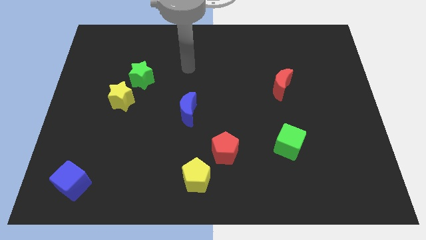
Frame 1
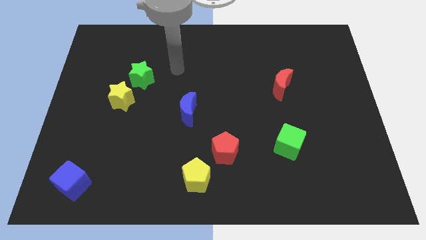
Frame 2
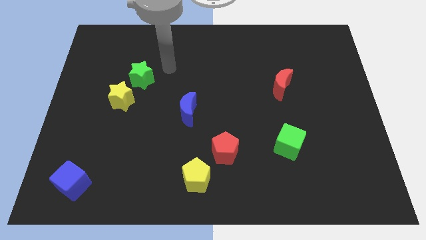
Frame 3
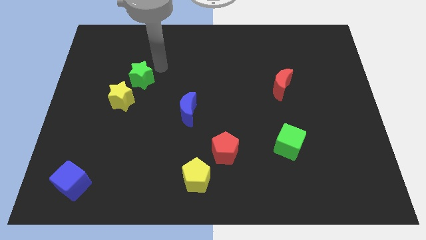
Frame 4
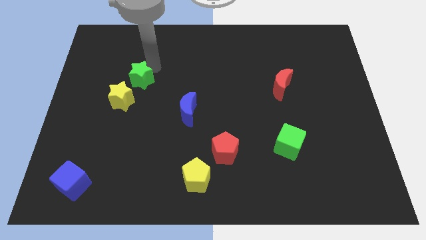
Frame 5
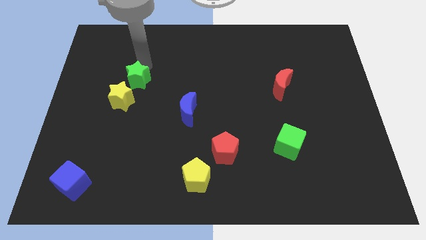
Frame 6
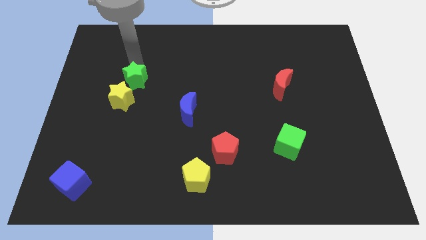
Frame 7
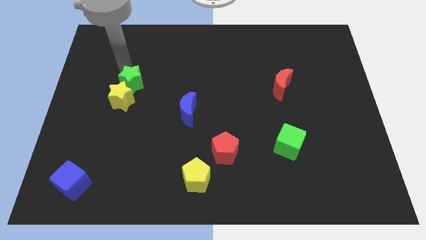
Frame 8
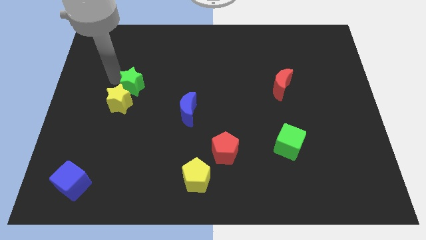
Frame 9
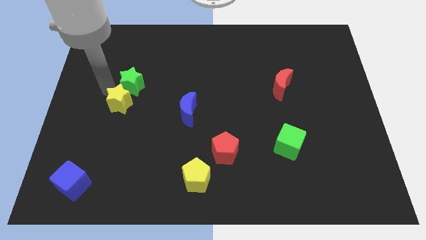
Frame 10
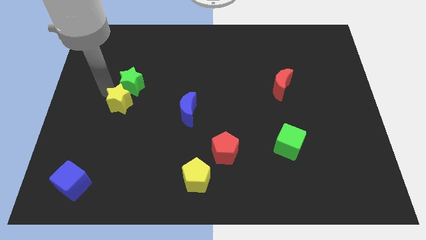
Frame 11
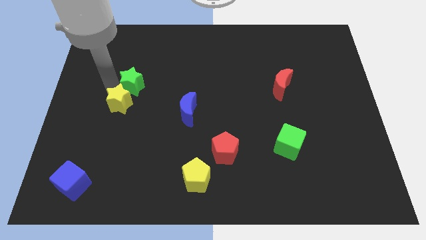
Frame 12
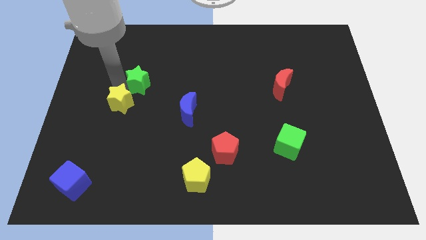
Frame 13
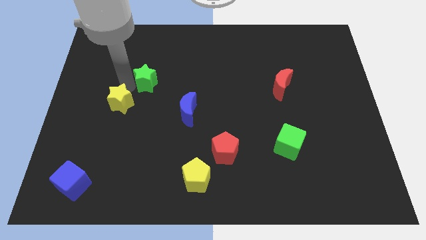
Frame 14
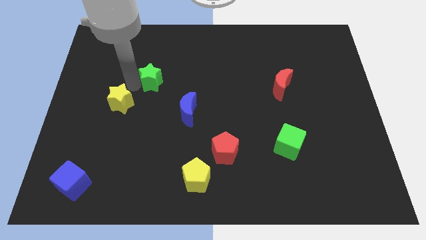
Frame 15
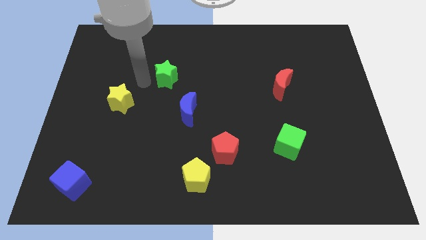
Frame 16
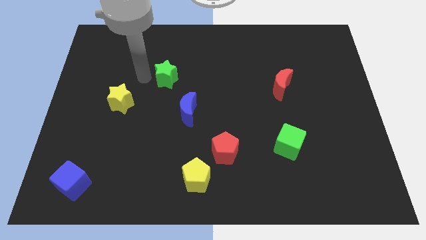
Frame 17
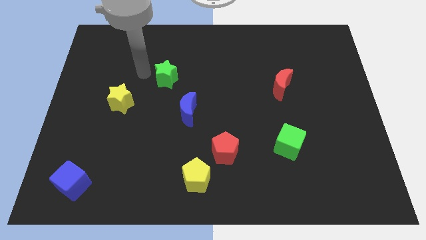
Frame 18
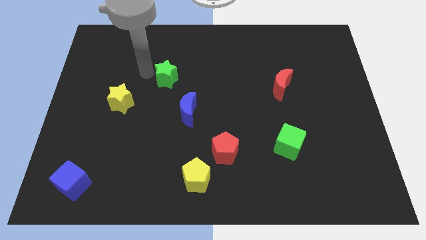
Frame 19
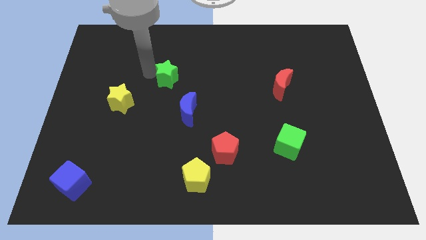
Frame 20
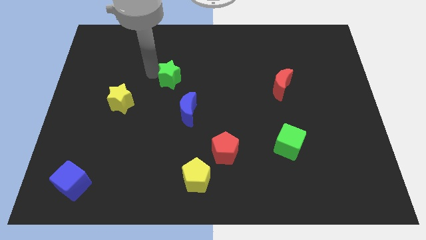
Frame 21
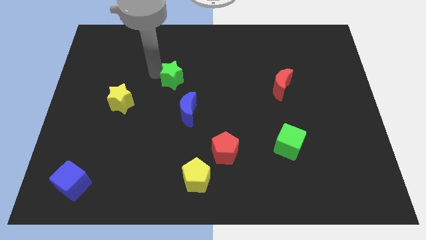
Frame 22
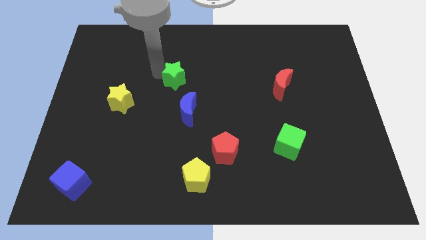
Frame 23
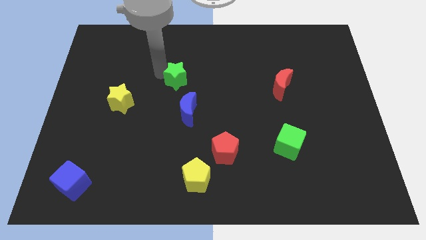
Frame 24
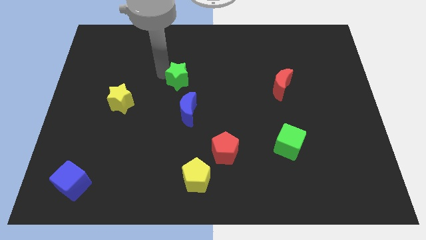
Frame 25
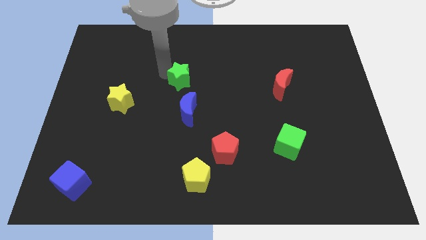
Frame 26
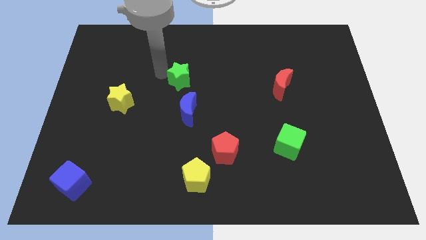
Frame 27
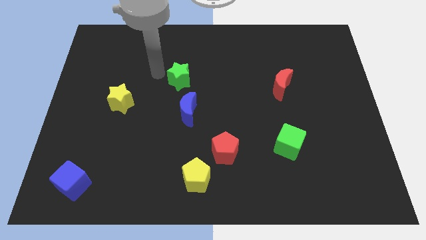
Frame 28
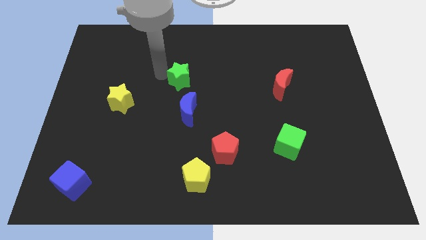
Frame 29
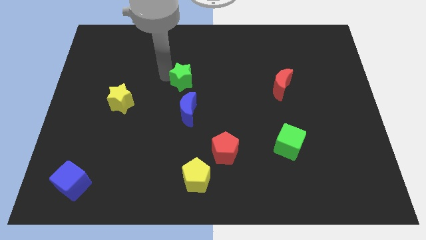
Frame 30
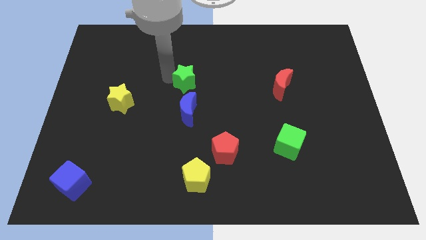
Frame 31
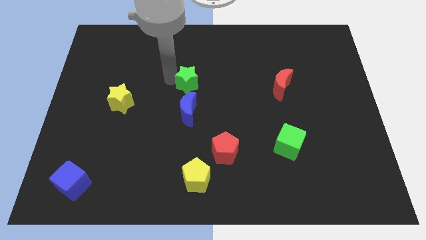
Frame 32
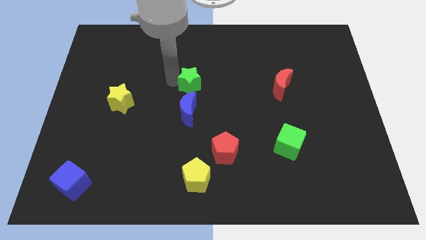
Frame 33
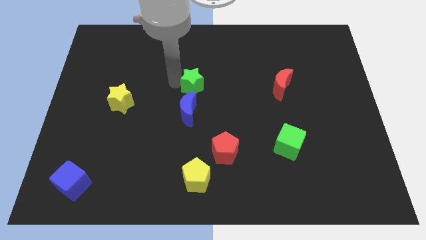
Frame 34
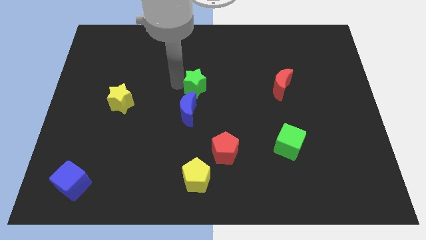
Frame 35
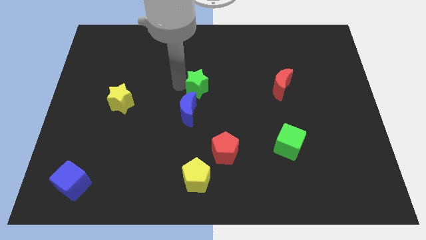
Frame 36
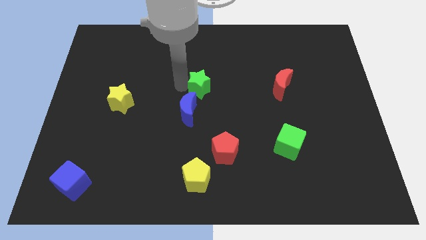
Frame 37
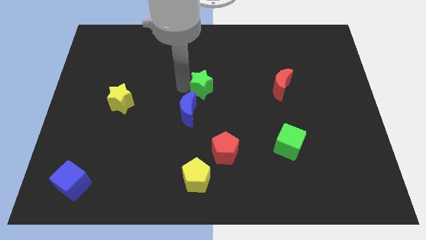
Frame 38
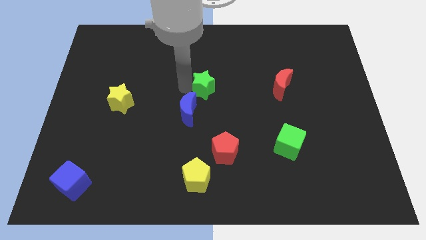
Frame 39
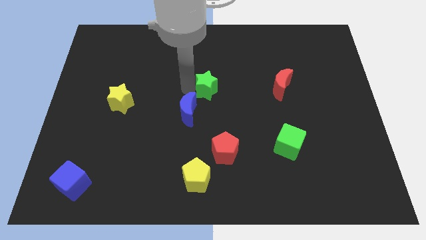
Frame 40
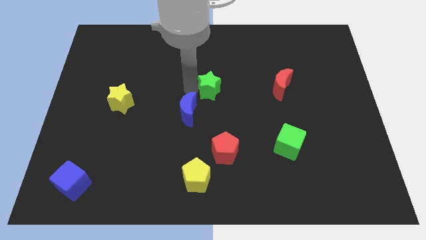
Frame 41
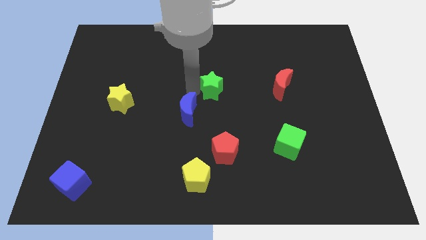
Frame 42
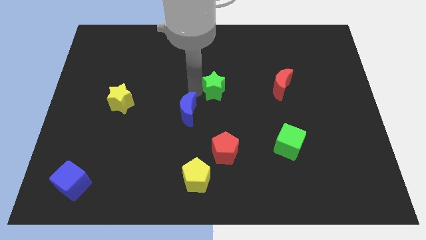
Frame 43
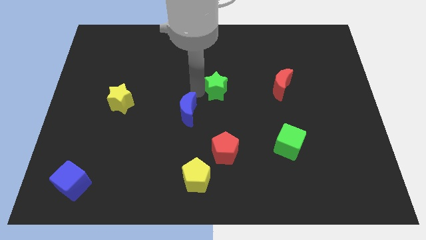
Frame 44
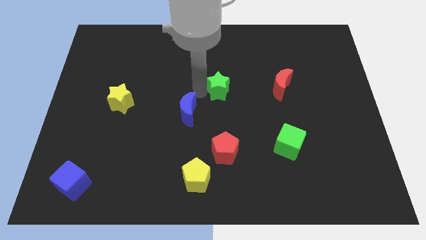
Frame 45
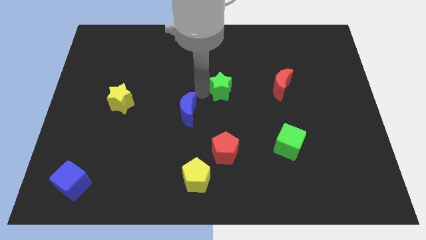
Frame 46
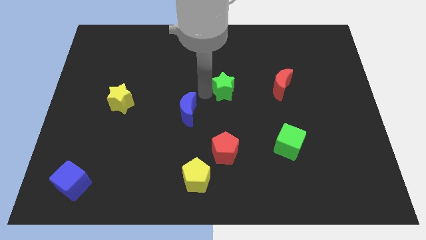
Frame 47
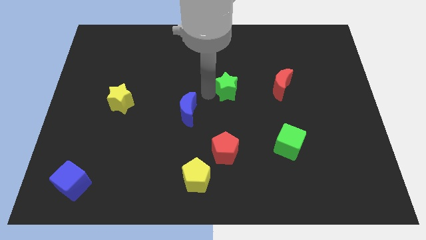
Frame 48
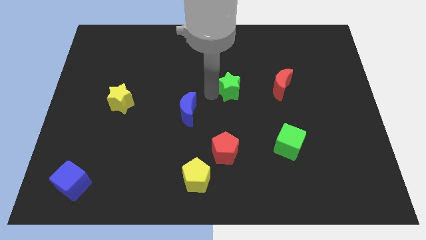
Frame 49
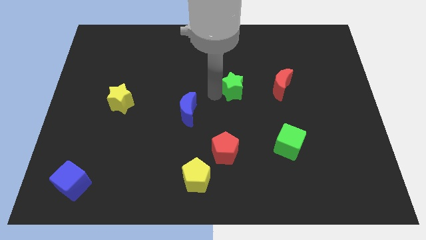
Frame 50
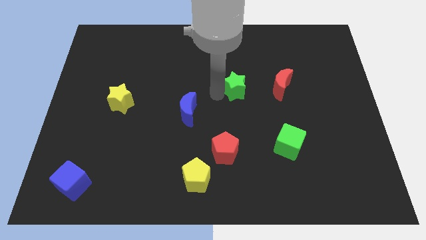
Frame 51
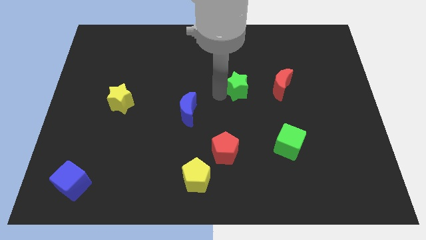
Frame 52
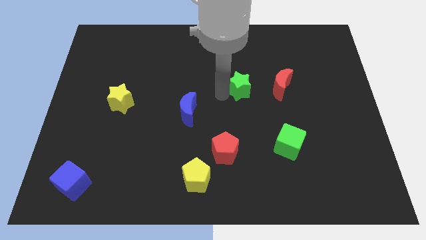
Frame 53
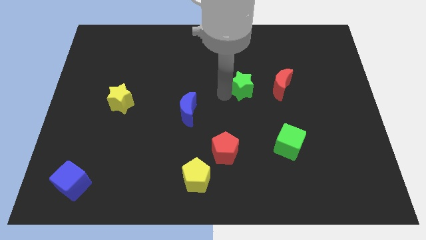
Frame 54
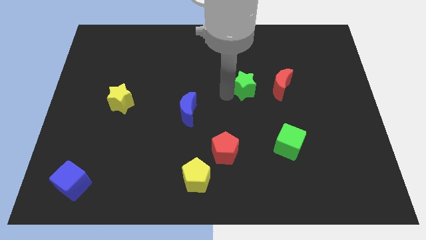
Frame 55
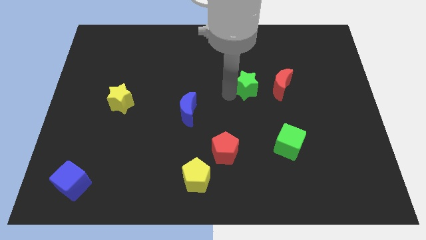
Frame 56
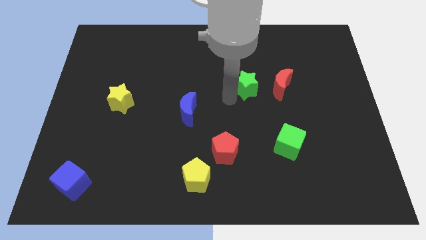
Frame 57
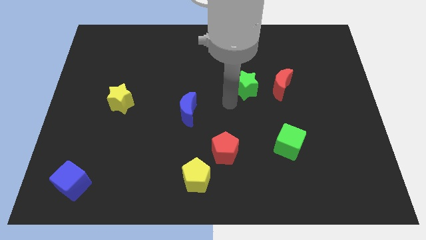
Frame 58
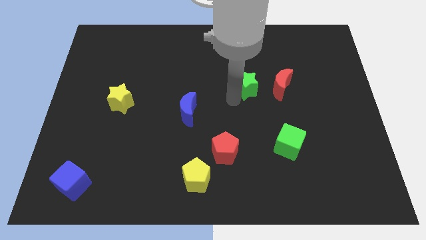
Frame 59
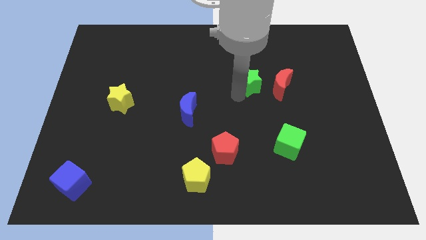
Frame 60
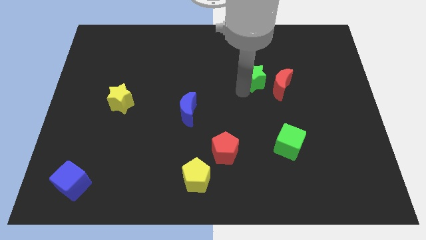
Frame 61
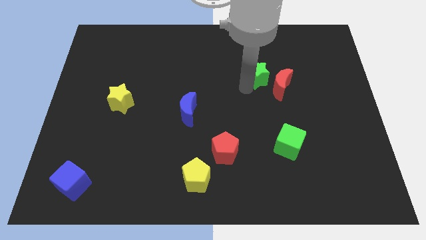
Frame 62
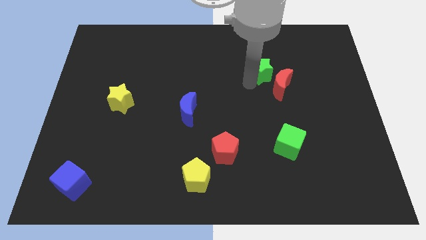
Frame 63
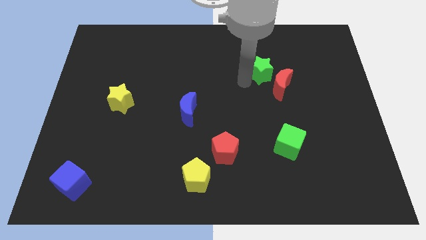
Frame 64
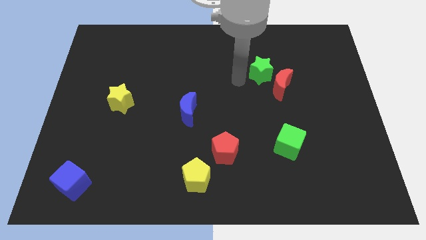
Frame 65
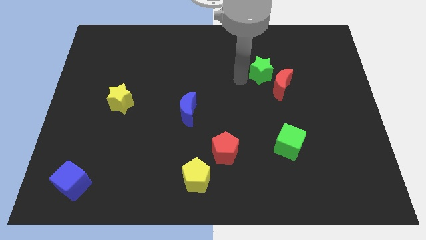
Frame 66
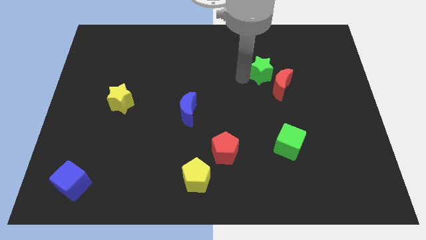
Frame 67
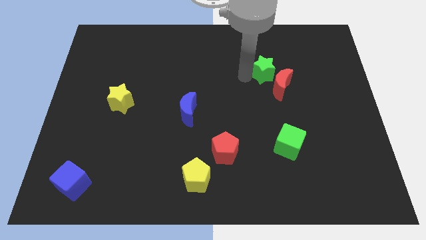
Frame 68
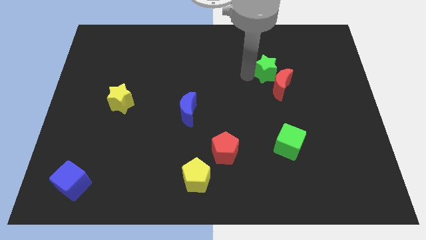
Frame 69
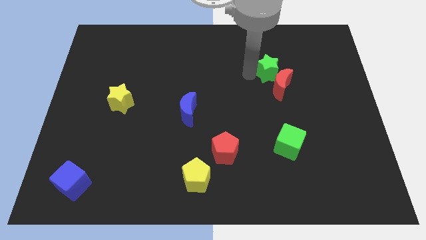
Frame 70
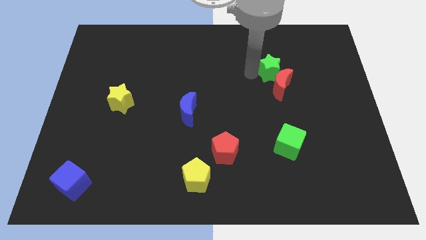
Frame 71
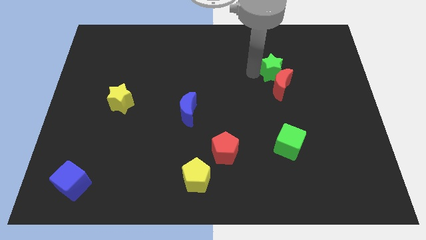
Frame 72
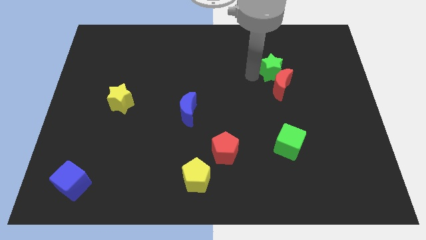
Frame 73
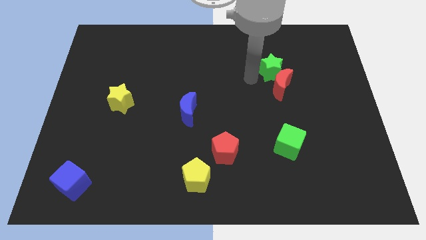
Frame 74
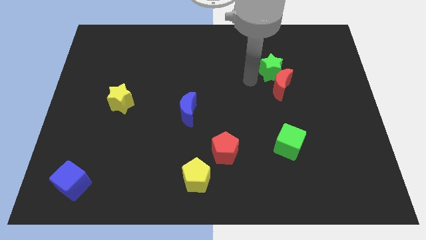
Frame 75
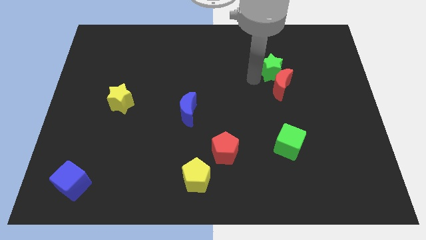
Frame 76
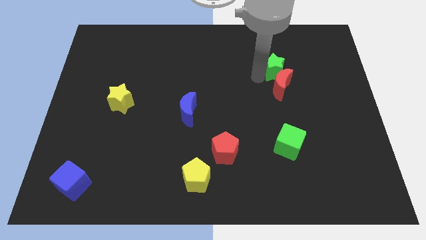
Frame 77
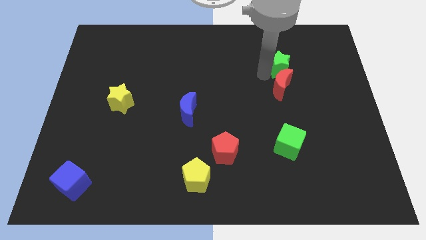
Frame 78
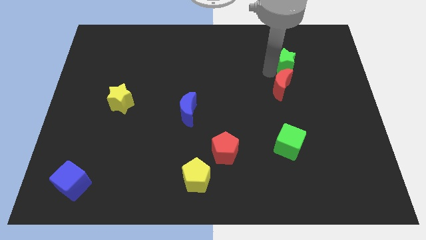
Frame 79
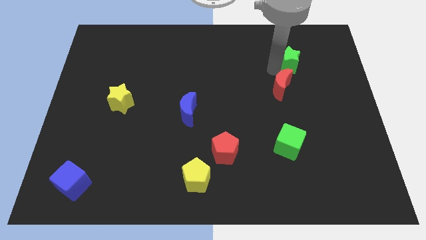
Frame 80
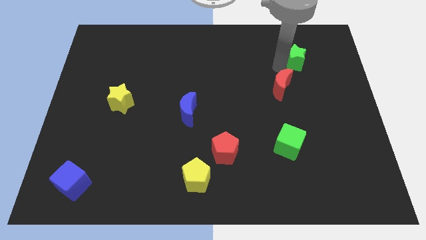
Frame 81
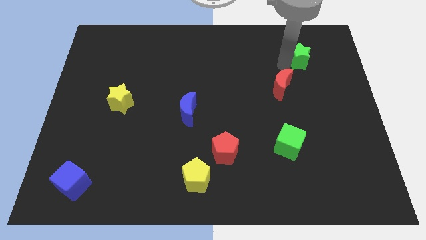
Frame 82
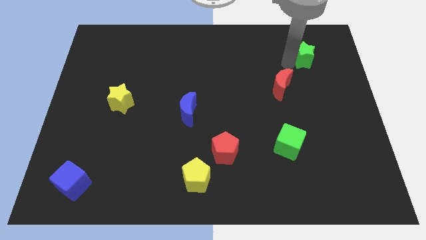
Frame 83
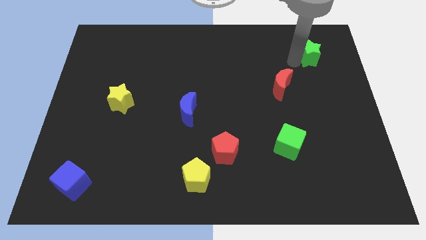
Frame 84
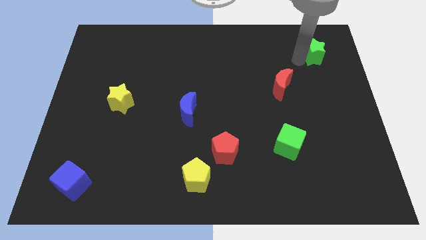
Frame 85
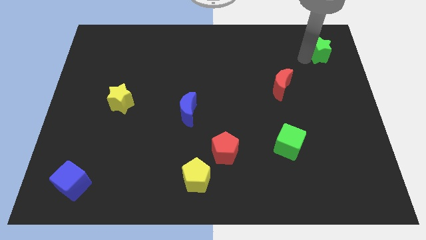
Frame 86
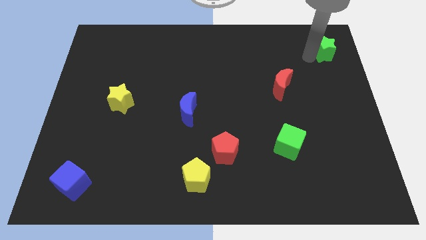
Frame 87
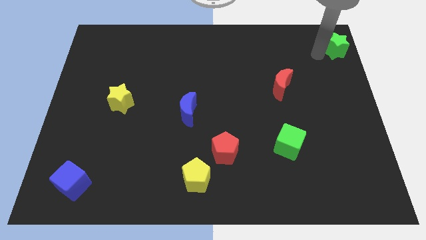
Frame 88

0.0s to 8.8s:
put the green star to the upper right corner
